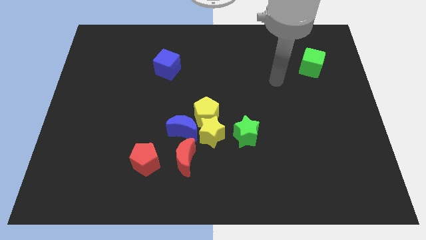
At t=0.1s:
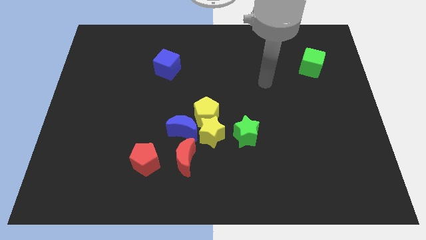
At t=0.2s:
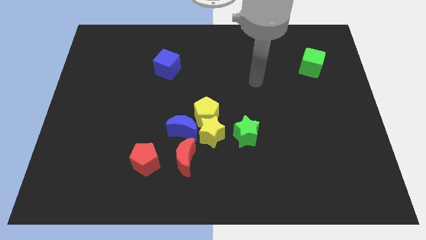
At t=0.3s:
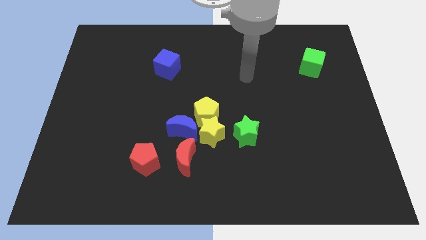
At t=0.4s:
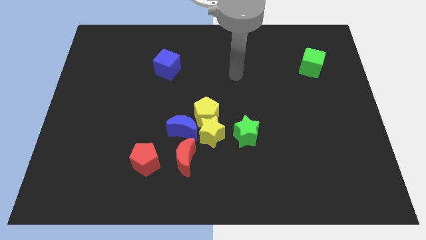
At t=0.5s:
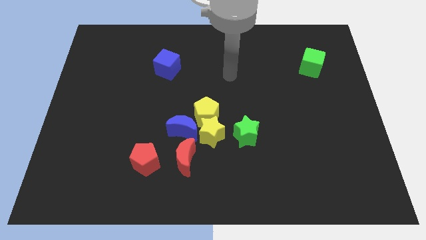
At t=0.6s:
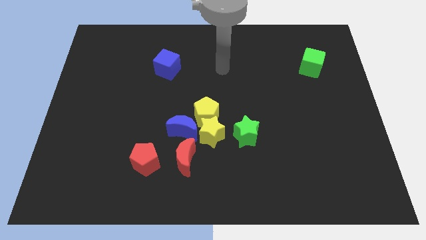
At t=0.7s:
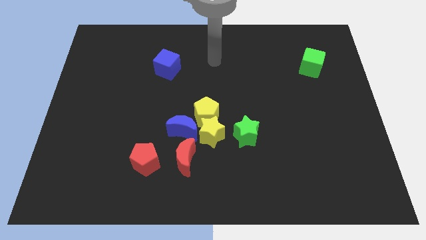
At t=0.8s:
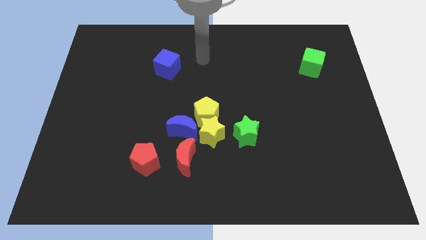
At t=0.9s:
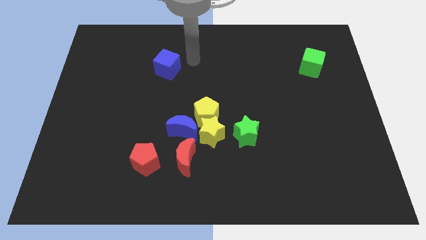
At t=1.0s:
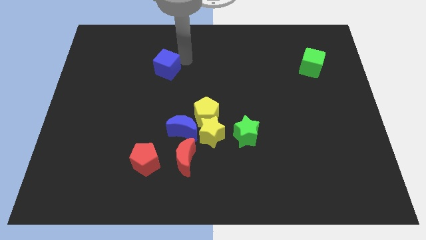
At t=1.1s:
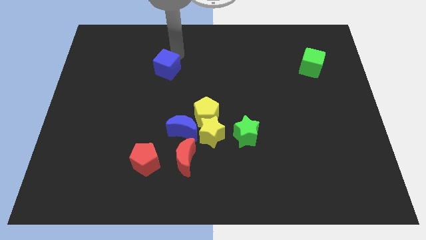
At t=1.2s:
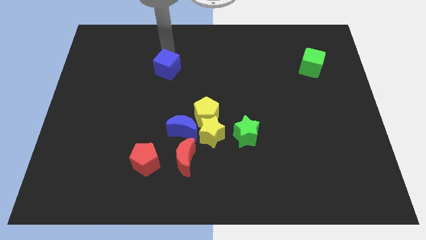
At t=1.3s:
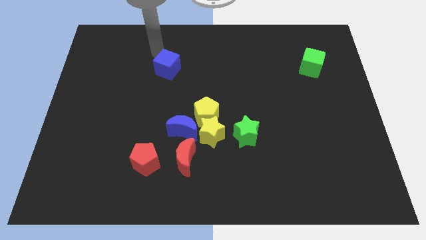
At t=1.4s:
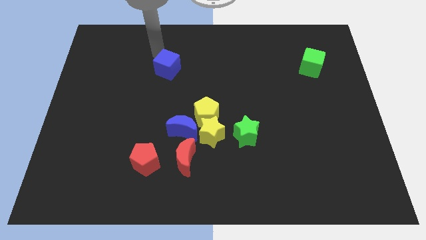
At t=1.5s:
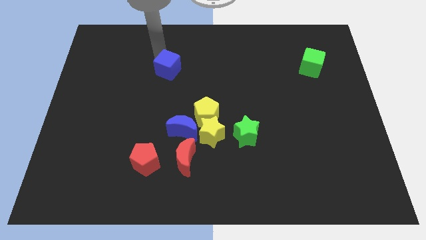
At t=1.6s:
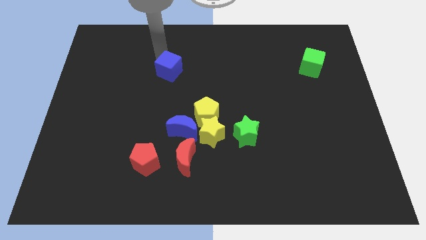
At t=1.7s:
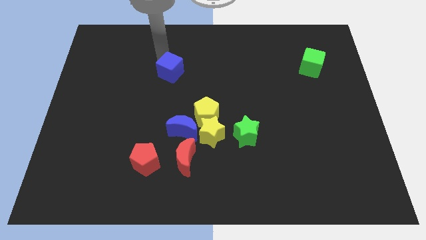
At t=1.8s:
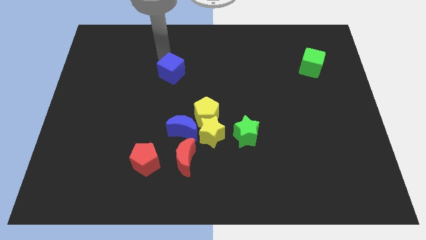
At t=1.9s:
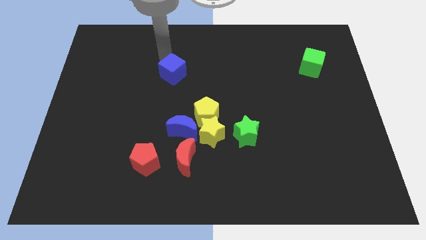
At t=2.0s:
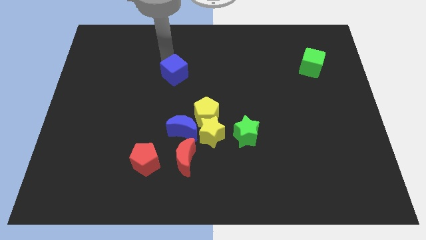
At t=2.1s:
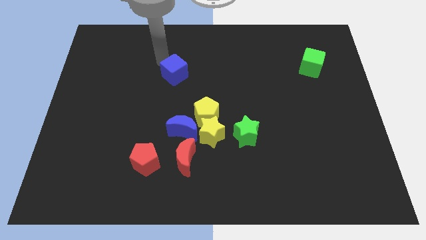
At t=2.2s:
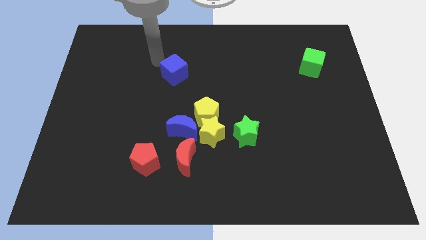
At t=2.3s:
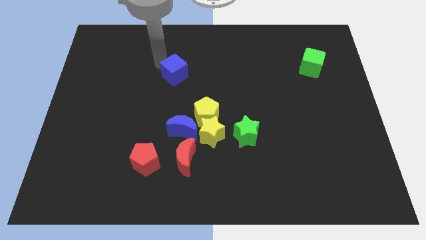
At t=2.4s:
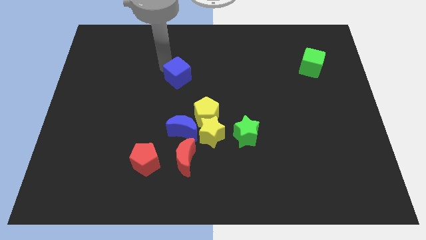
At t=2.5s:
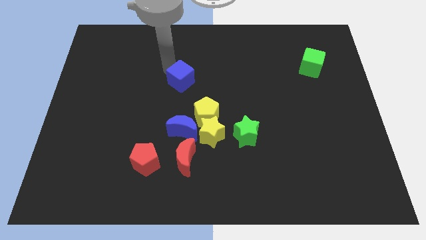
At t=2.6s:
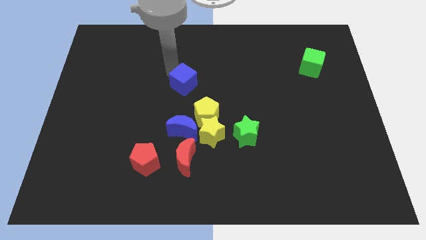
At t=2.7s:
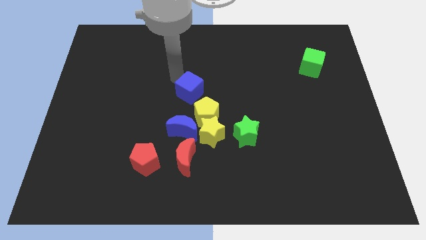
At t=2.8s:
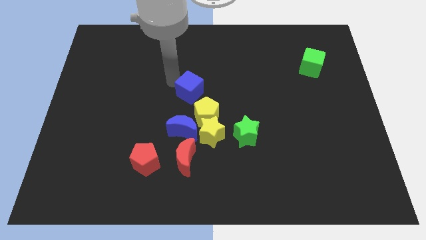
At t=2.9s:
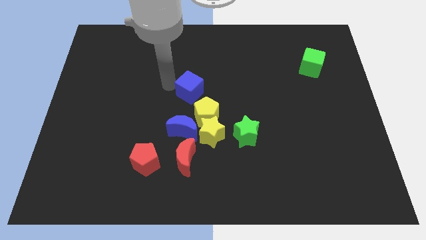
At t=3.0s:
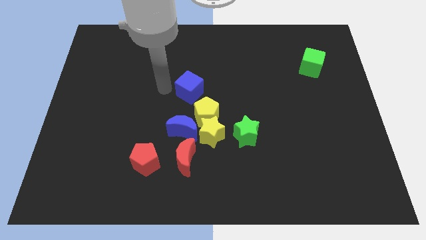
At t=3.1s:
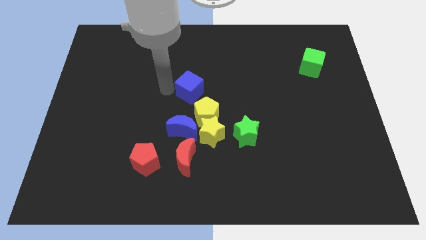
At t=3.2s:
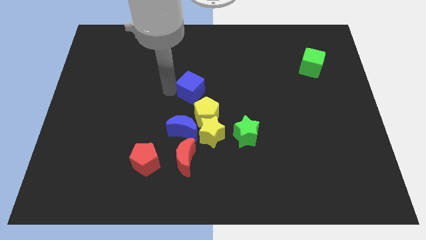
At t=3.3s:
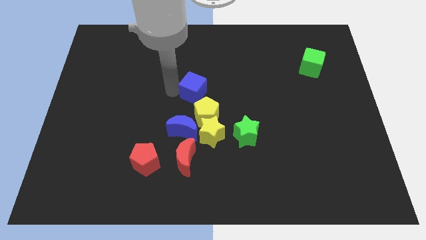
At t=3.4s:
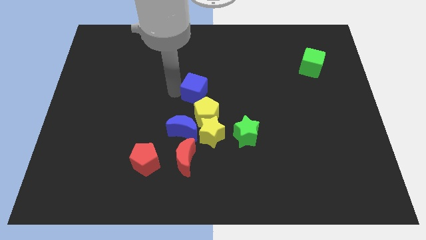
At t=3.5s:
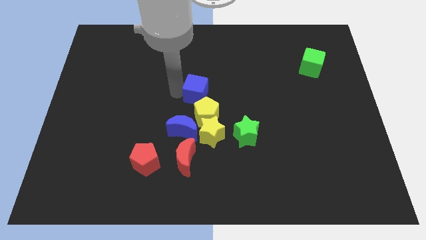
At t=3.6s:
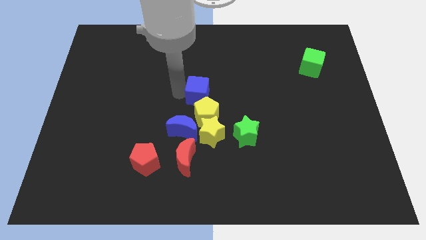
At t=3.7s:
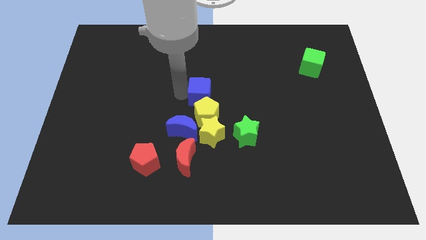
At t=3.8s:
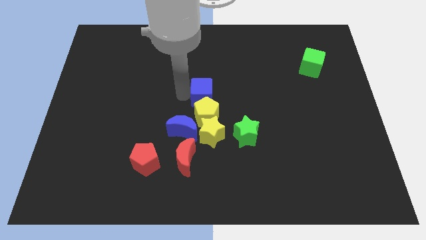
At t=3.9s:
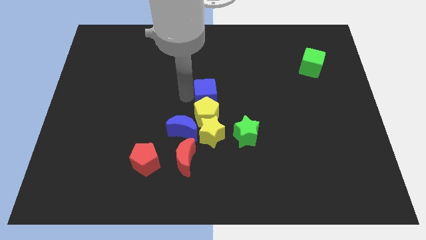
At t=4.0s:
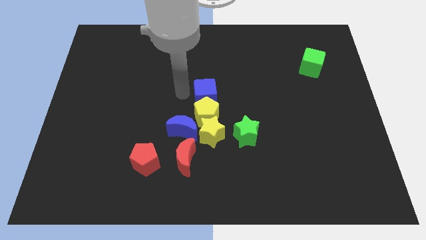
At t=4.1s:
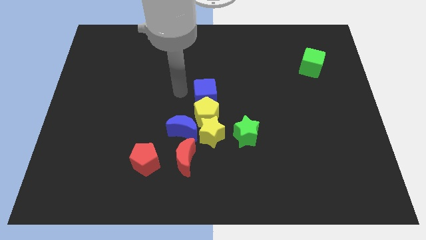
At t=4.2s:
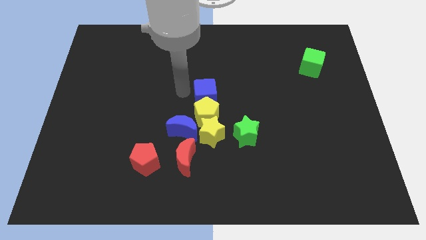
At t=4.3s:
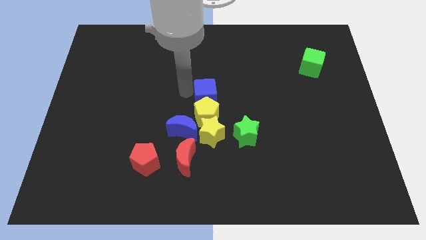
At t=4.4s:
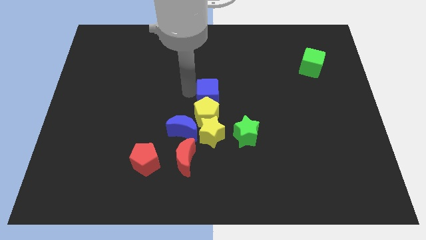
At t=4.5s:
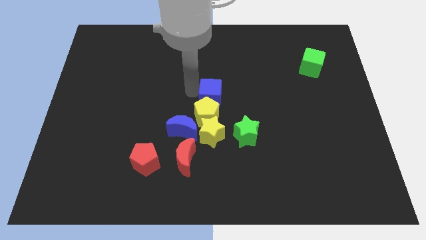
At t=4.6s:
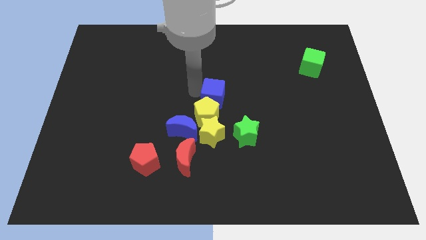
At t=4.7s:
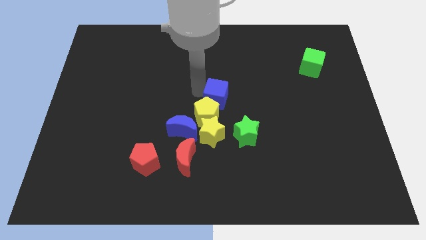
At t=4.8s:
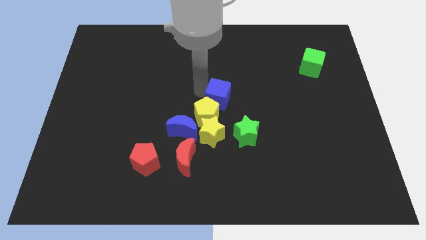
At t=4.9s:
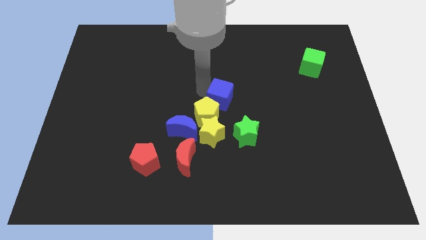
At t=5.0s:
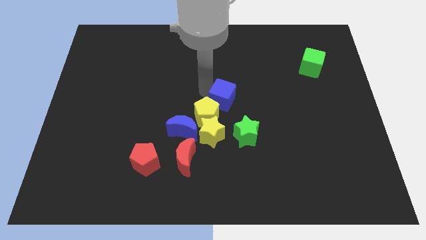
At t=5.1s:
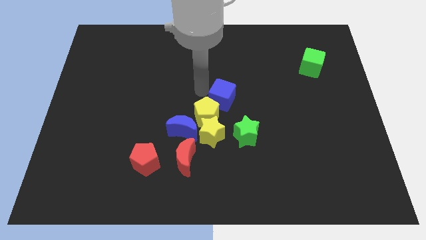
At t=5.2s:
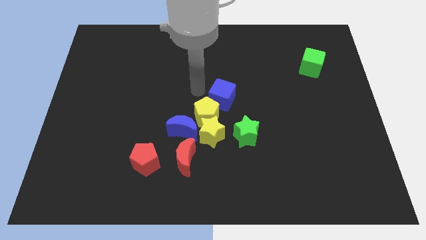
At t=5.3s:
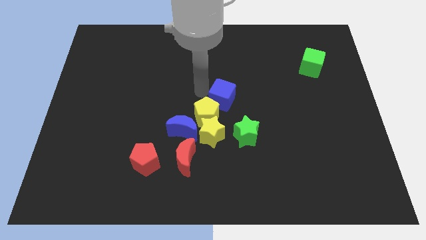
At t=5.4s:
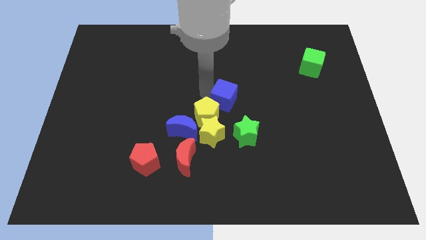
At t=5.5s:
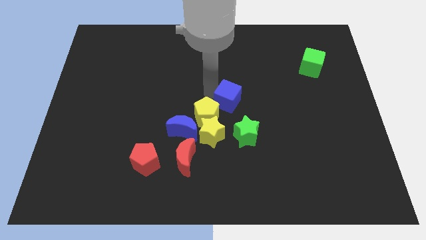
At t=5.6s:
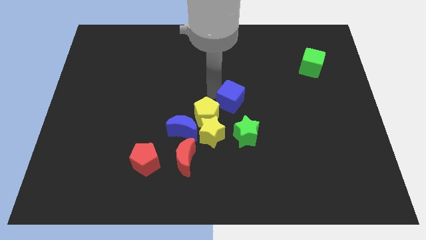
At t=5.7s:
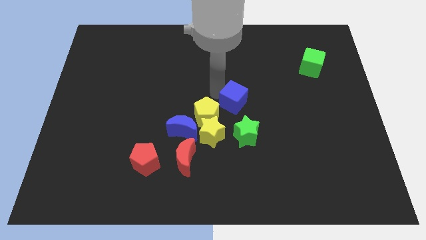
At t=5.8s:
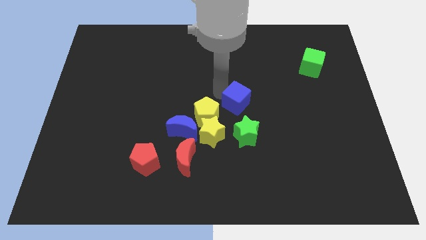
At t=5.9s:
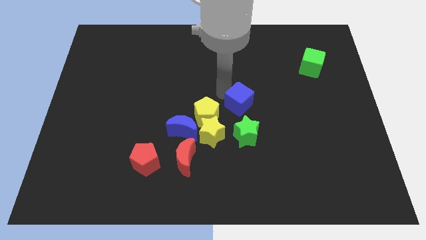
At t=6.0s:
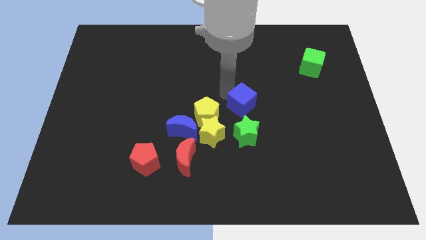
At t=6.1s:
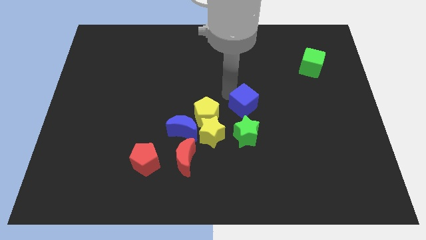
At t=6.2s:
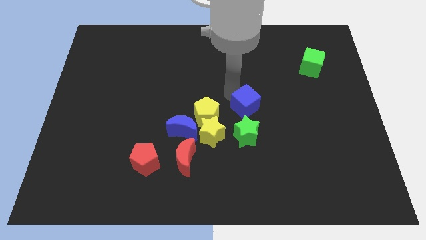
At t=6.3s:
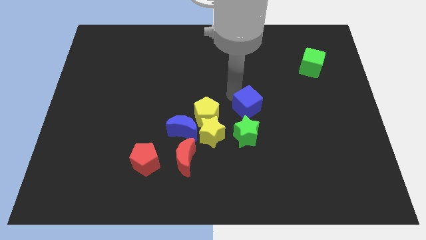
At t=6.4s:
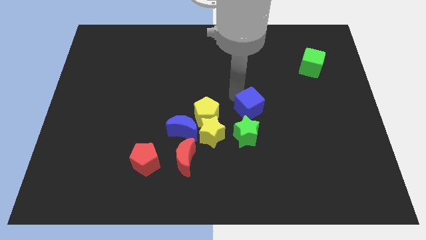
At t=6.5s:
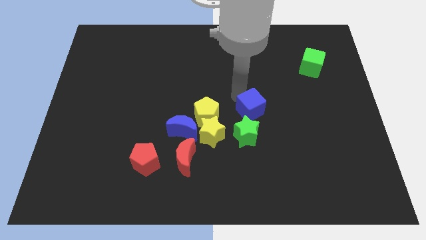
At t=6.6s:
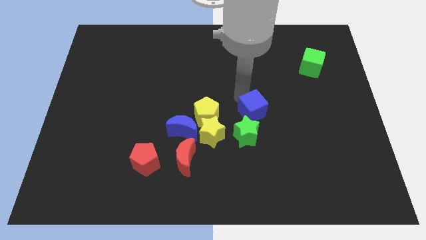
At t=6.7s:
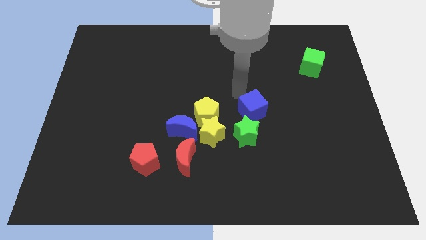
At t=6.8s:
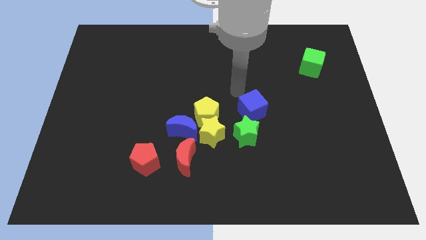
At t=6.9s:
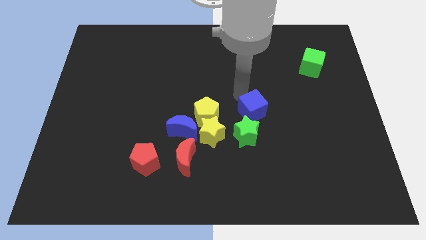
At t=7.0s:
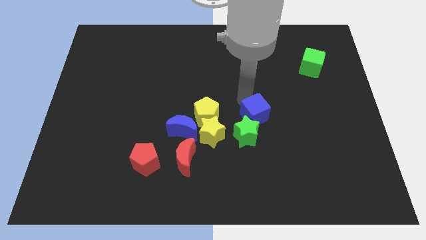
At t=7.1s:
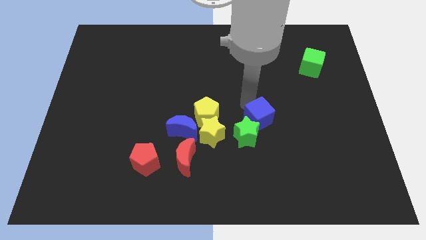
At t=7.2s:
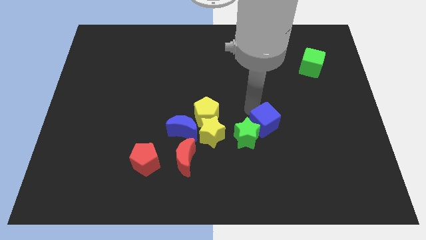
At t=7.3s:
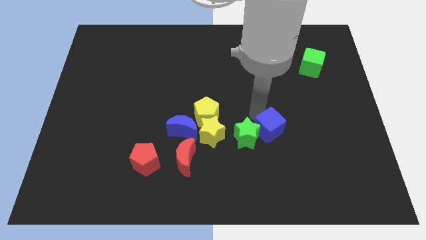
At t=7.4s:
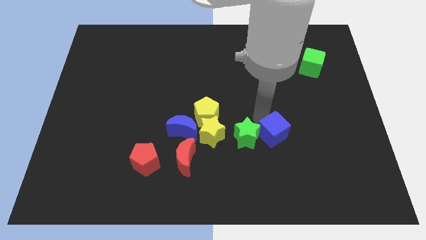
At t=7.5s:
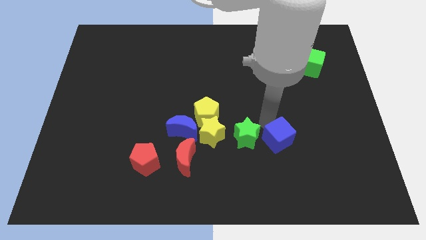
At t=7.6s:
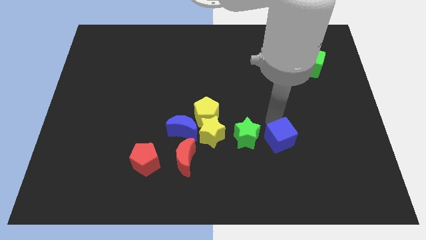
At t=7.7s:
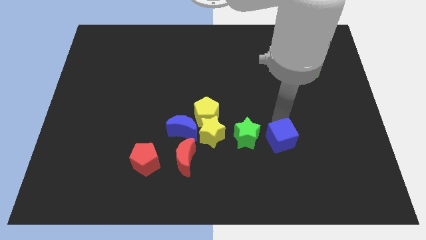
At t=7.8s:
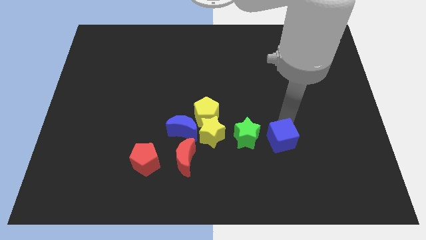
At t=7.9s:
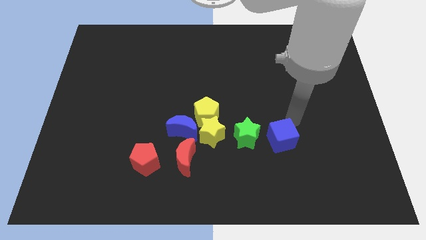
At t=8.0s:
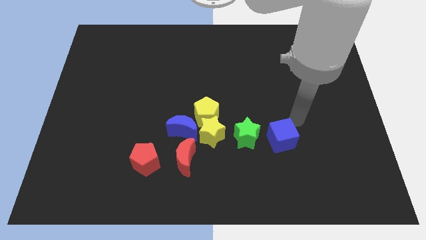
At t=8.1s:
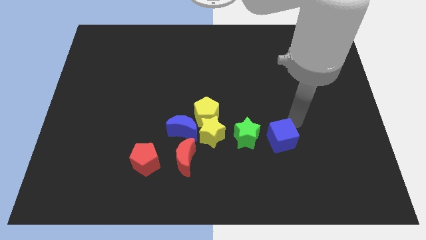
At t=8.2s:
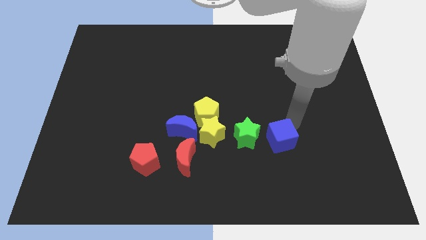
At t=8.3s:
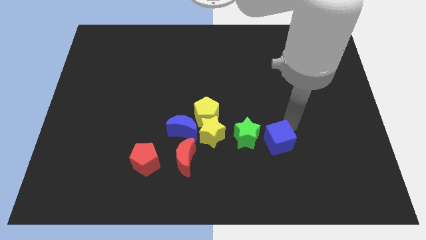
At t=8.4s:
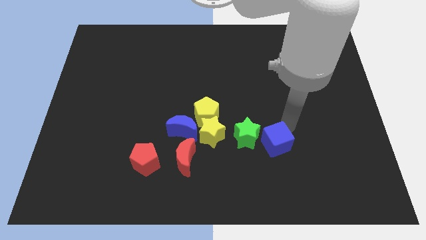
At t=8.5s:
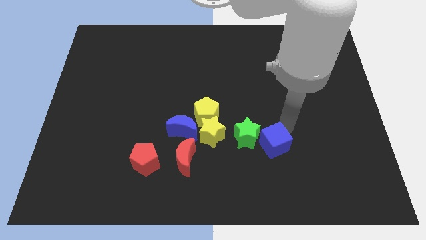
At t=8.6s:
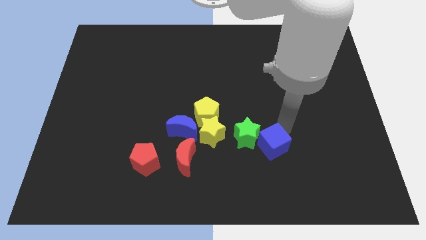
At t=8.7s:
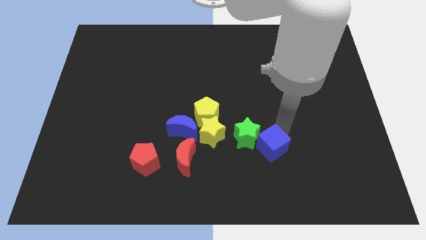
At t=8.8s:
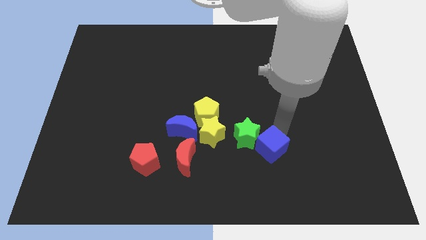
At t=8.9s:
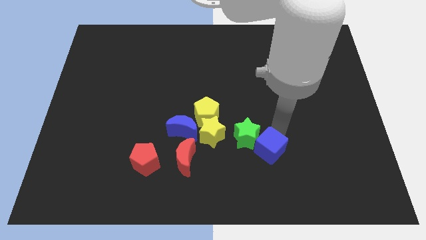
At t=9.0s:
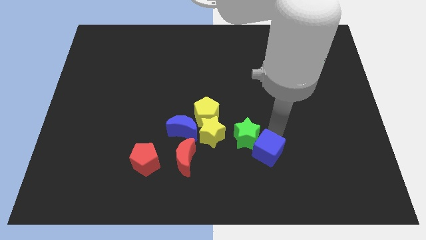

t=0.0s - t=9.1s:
push the blue cube below the green star
